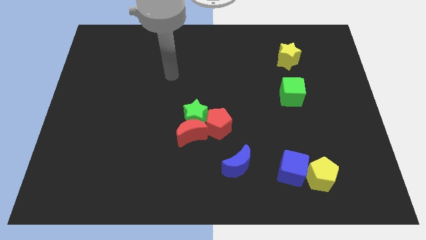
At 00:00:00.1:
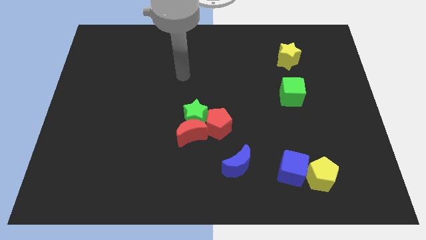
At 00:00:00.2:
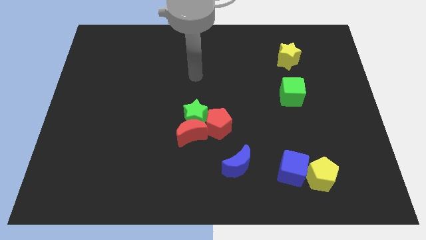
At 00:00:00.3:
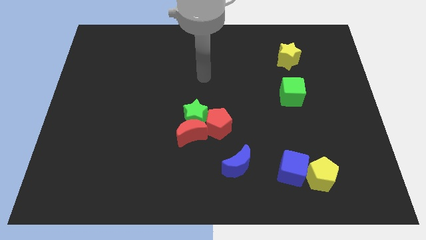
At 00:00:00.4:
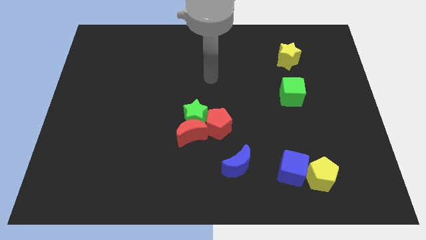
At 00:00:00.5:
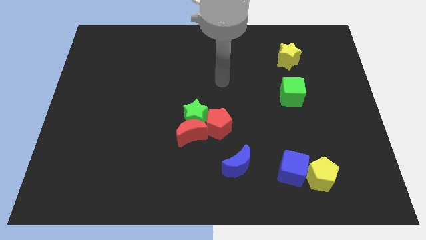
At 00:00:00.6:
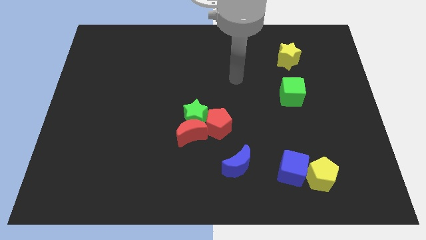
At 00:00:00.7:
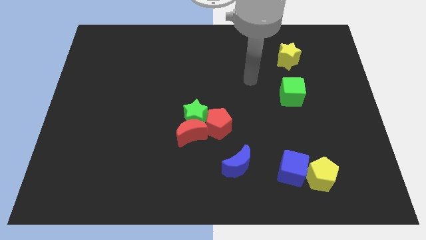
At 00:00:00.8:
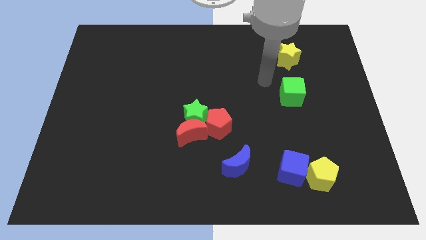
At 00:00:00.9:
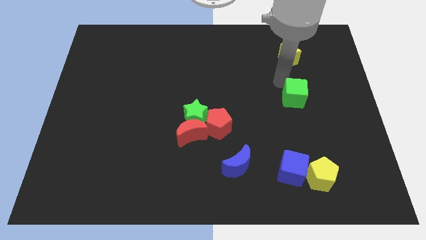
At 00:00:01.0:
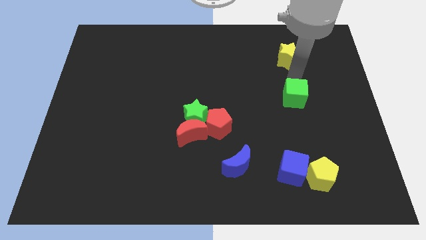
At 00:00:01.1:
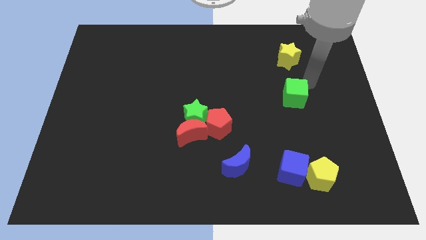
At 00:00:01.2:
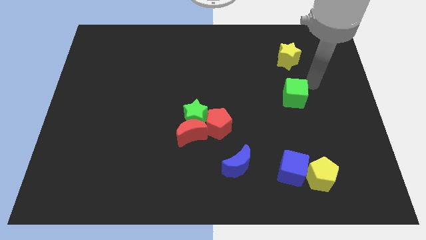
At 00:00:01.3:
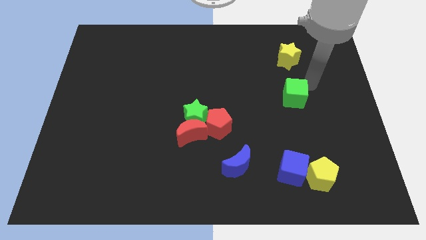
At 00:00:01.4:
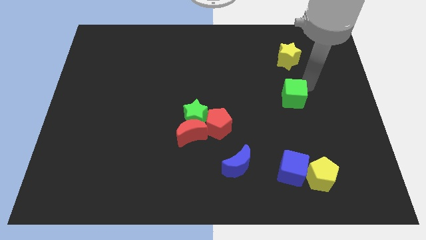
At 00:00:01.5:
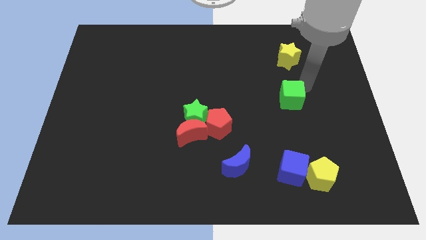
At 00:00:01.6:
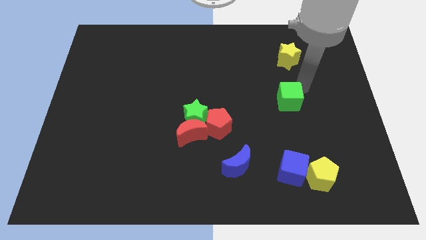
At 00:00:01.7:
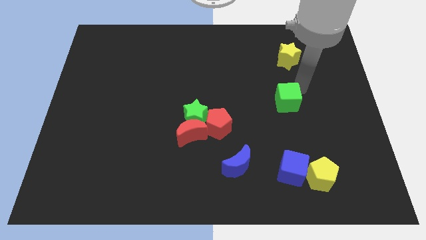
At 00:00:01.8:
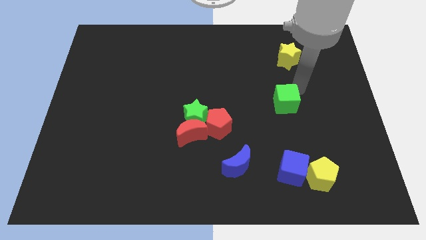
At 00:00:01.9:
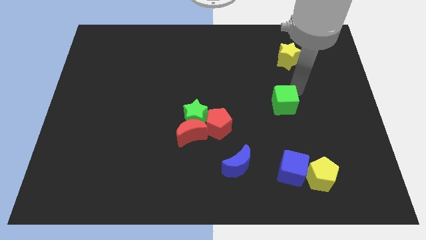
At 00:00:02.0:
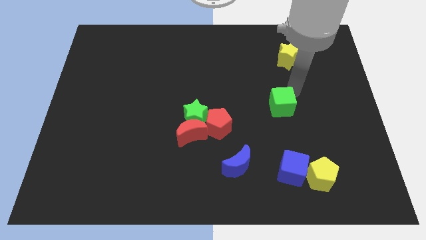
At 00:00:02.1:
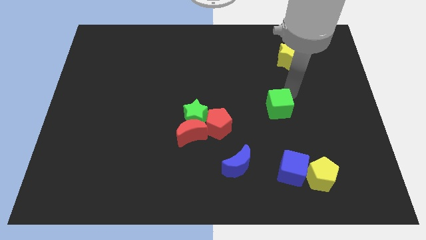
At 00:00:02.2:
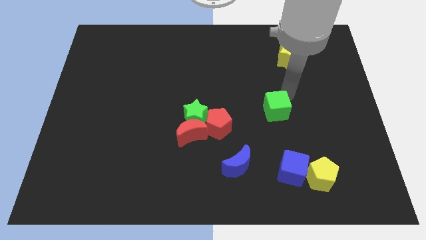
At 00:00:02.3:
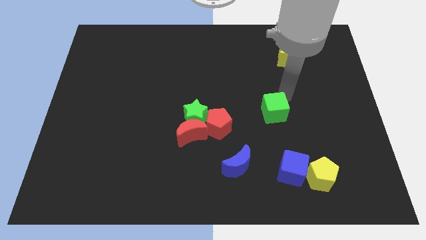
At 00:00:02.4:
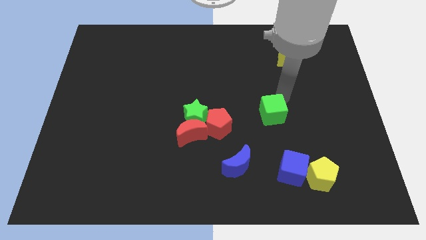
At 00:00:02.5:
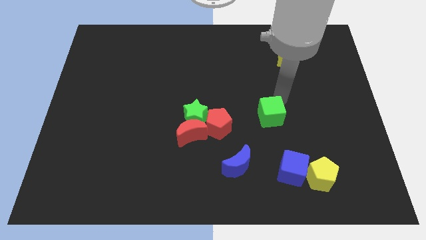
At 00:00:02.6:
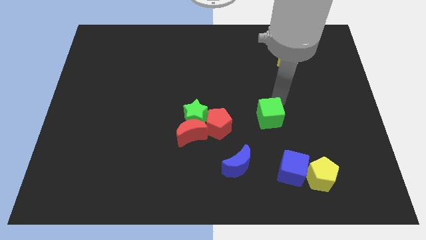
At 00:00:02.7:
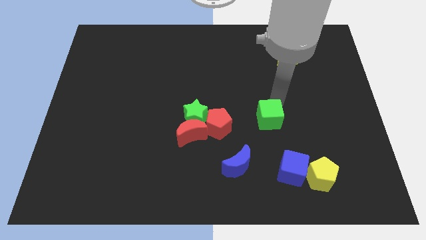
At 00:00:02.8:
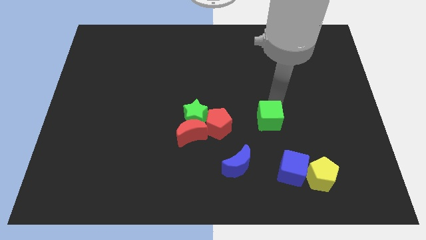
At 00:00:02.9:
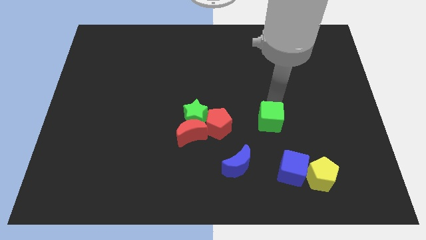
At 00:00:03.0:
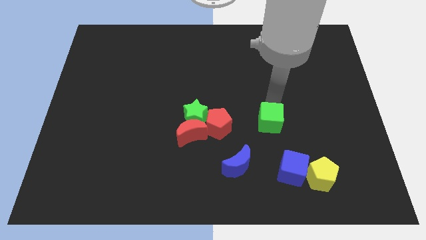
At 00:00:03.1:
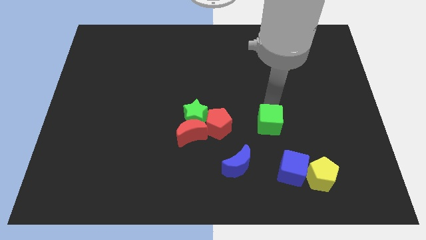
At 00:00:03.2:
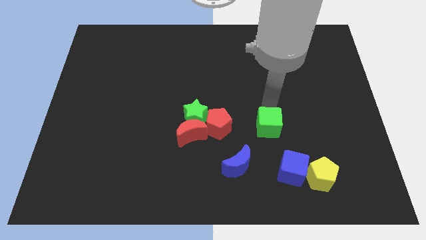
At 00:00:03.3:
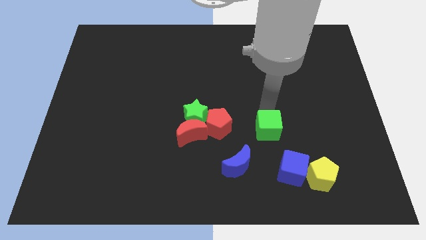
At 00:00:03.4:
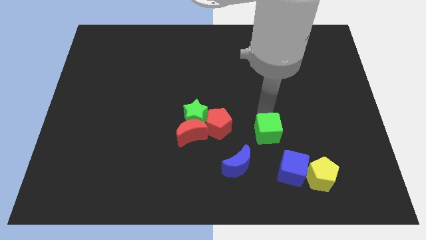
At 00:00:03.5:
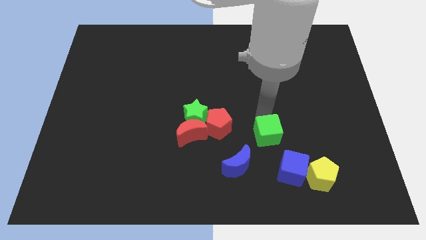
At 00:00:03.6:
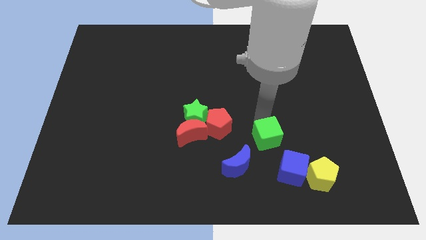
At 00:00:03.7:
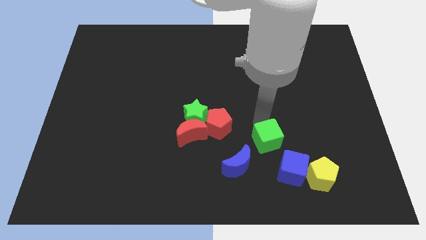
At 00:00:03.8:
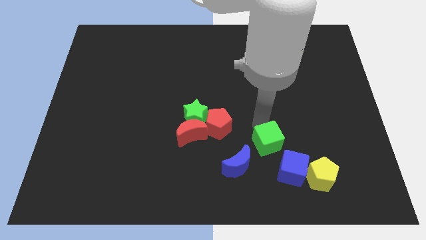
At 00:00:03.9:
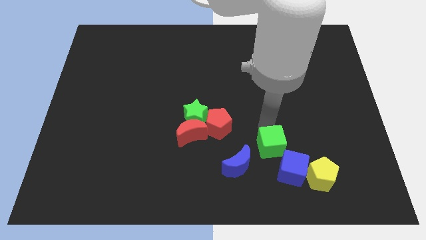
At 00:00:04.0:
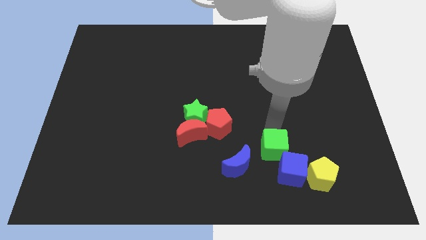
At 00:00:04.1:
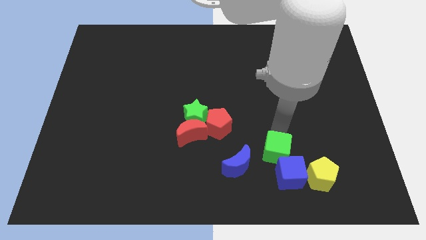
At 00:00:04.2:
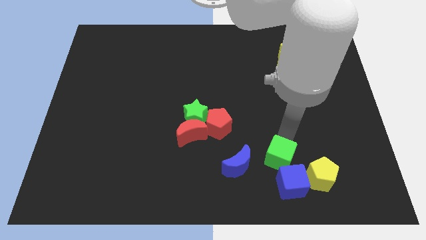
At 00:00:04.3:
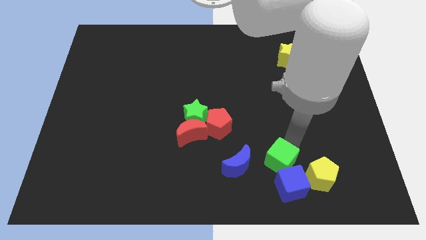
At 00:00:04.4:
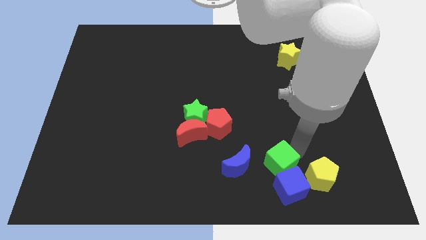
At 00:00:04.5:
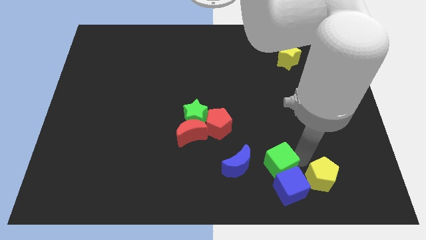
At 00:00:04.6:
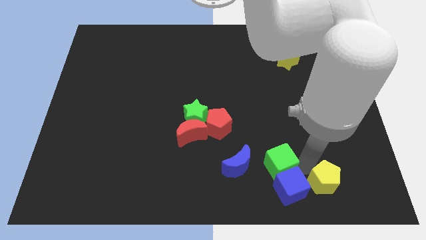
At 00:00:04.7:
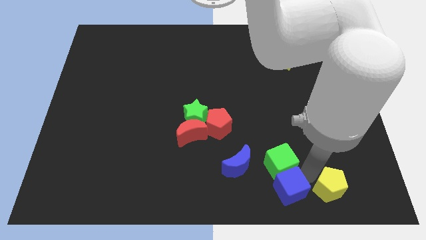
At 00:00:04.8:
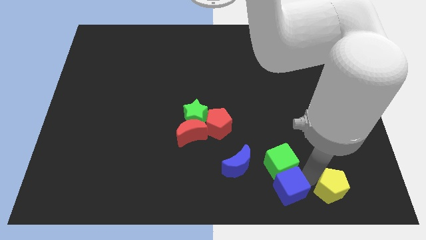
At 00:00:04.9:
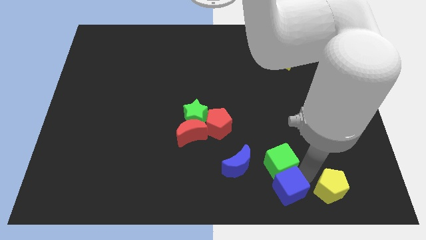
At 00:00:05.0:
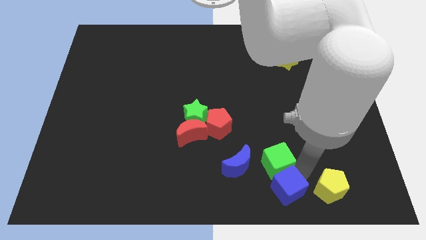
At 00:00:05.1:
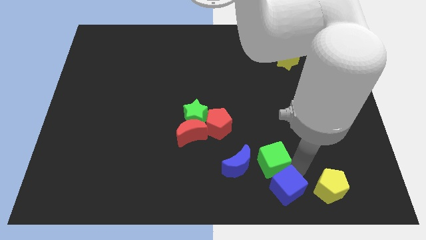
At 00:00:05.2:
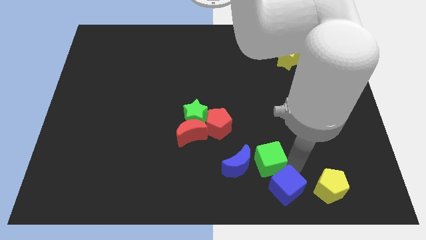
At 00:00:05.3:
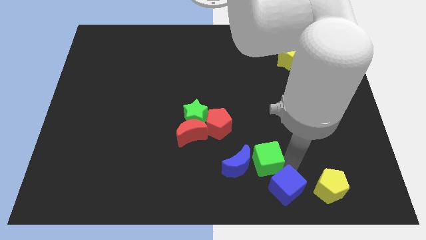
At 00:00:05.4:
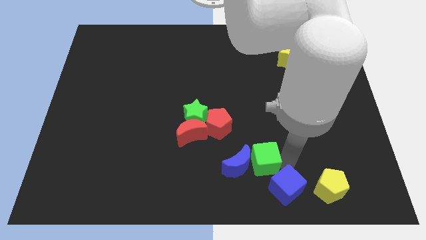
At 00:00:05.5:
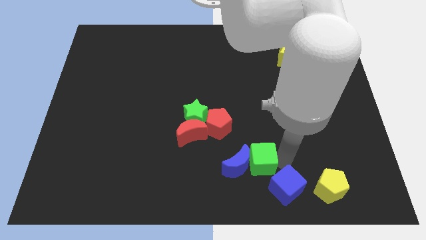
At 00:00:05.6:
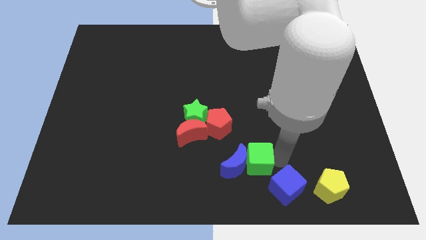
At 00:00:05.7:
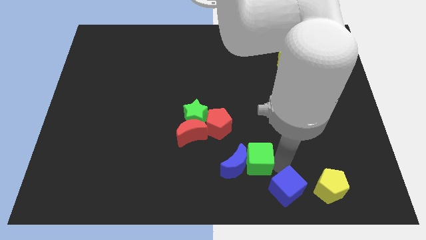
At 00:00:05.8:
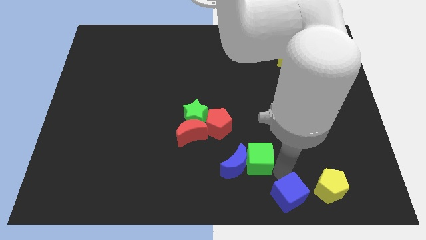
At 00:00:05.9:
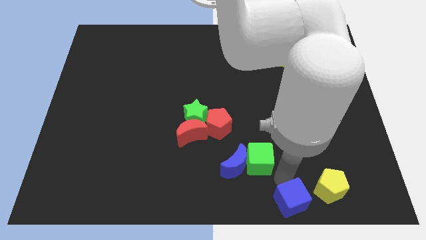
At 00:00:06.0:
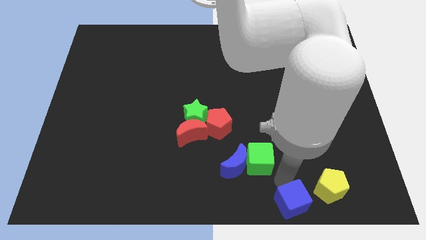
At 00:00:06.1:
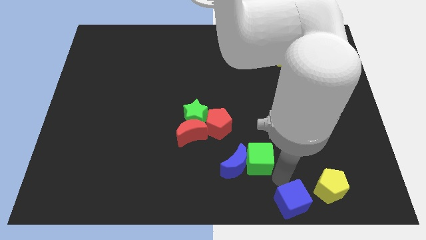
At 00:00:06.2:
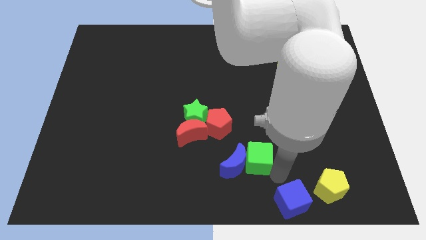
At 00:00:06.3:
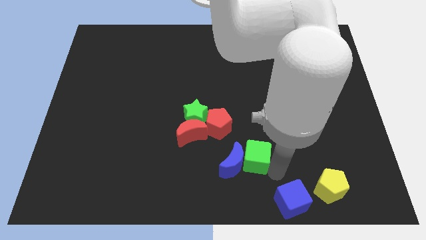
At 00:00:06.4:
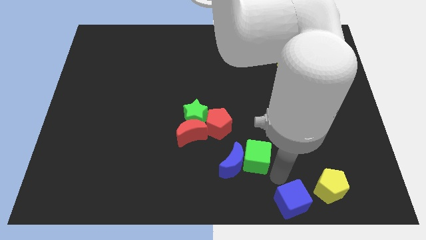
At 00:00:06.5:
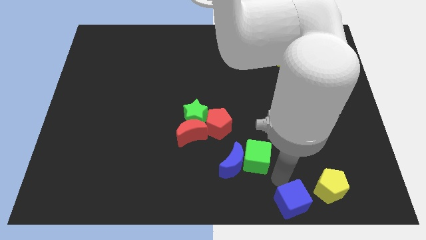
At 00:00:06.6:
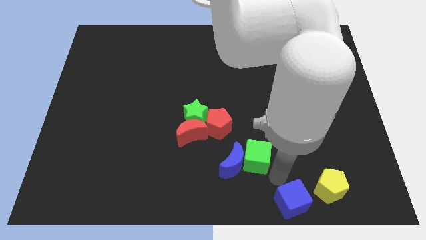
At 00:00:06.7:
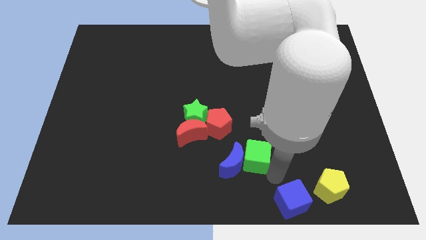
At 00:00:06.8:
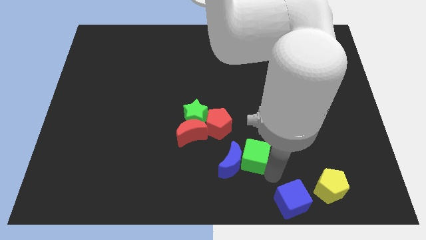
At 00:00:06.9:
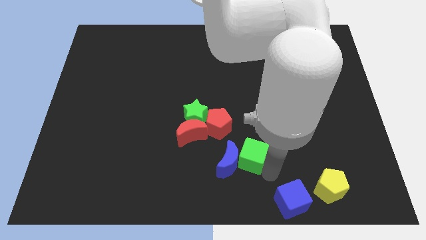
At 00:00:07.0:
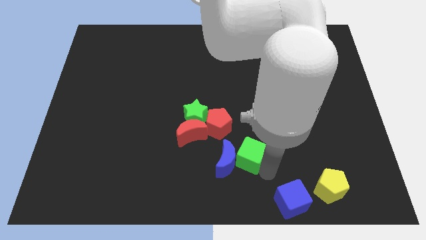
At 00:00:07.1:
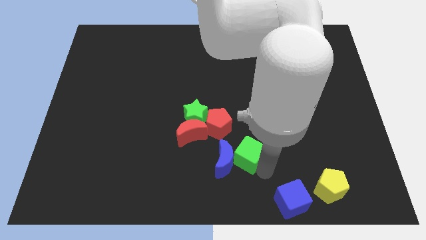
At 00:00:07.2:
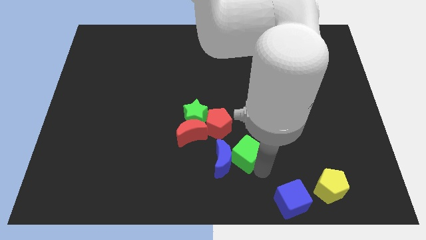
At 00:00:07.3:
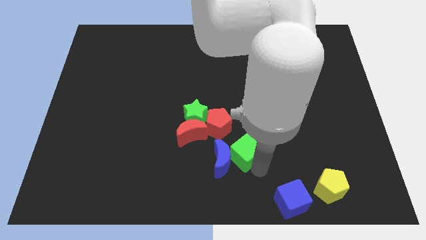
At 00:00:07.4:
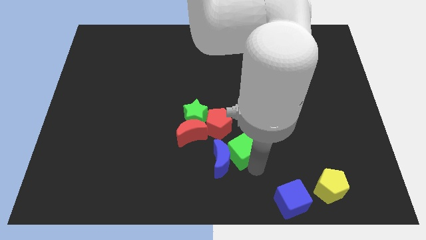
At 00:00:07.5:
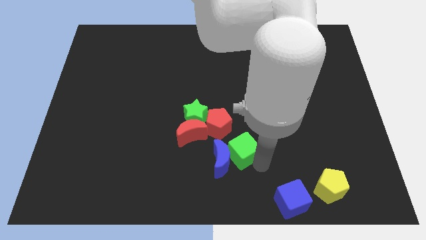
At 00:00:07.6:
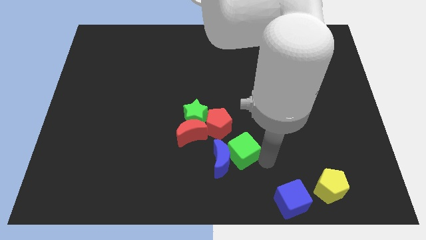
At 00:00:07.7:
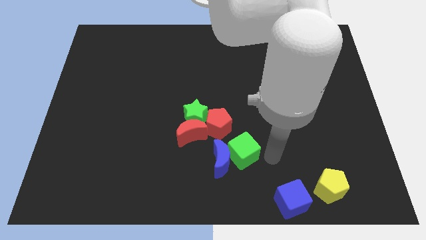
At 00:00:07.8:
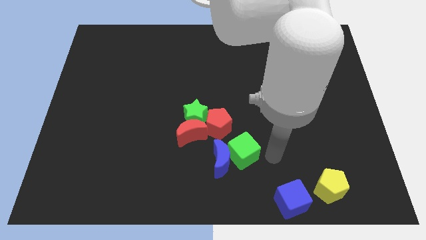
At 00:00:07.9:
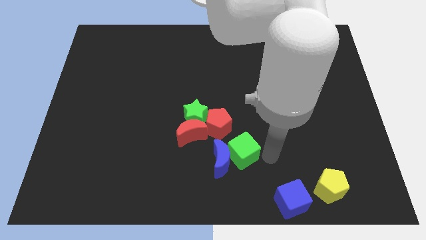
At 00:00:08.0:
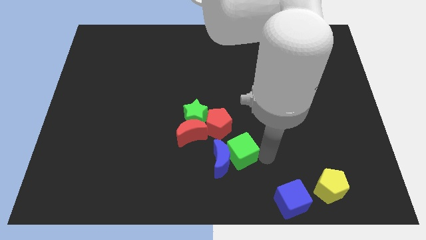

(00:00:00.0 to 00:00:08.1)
push the green cube to the bottom side of the red pentagon
